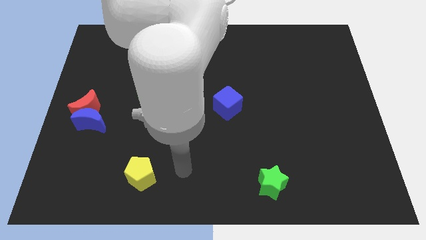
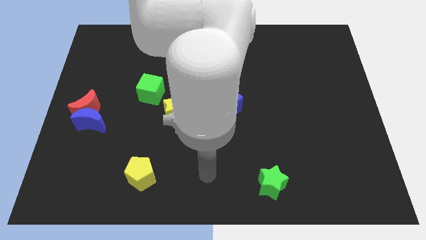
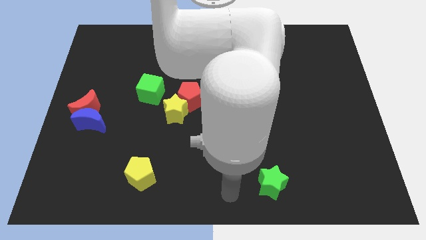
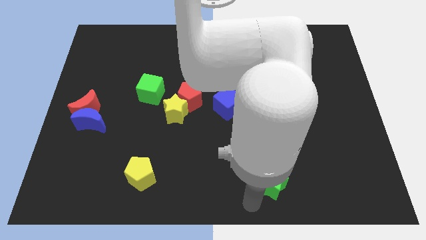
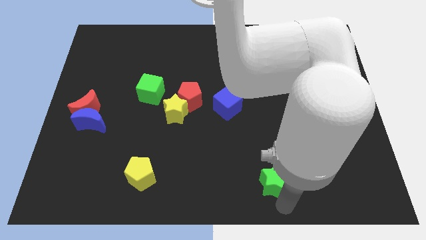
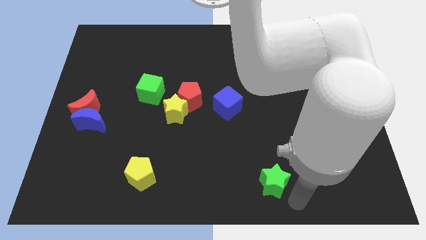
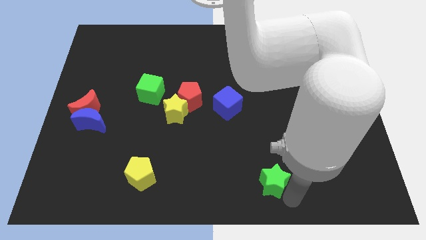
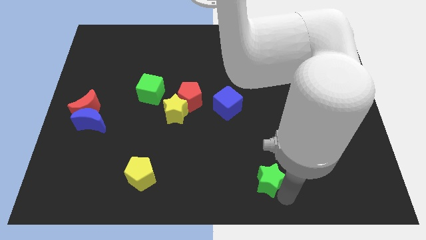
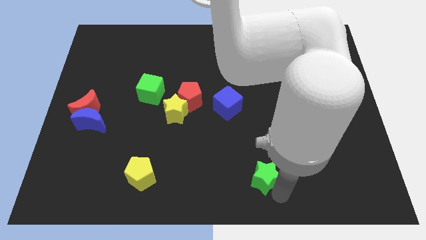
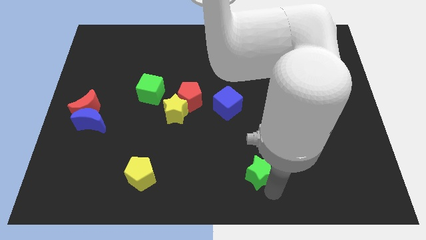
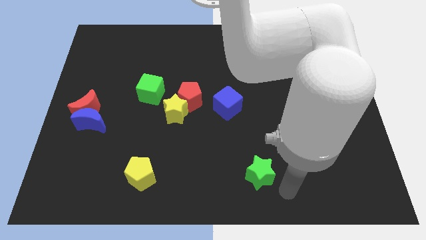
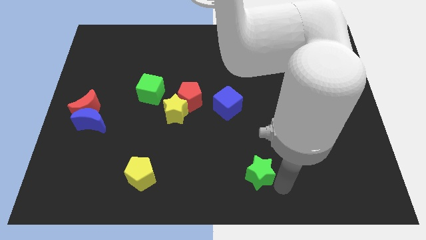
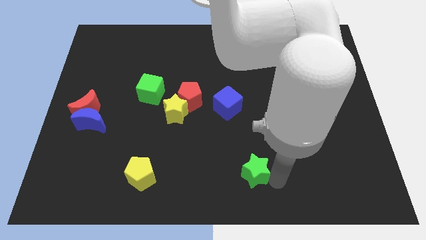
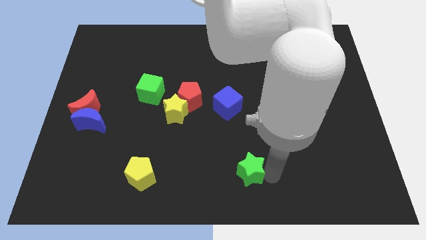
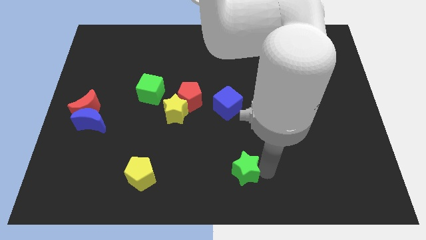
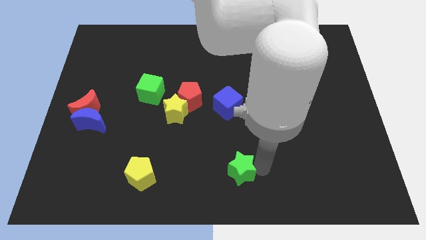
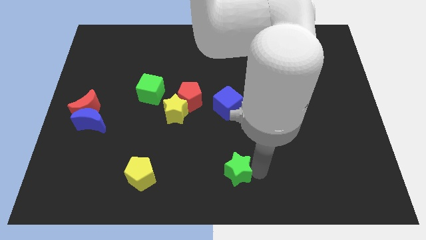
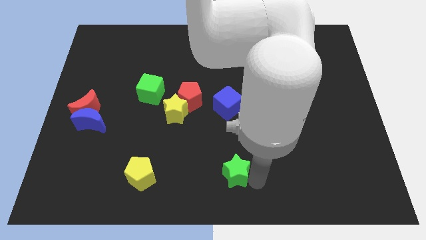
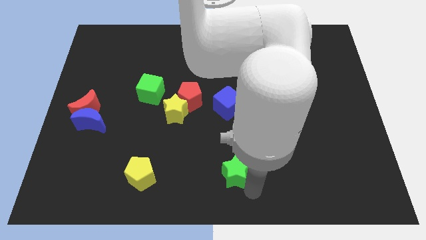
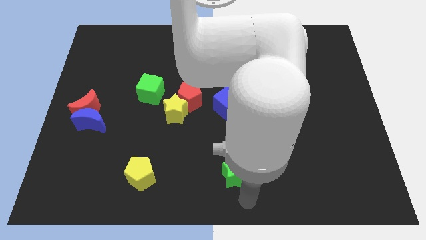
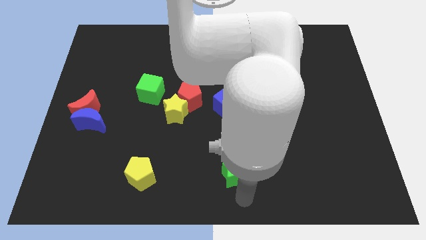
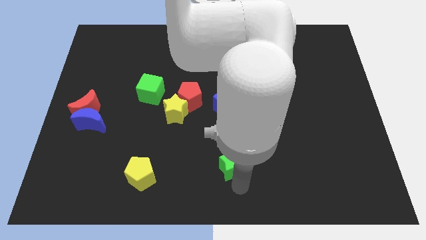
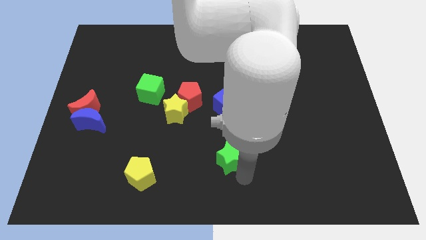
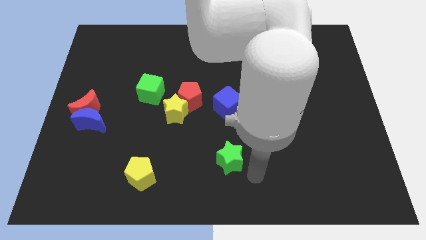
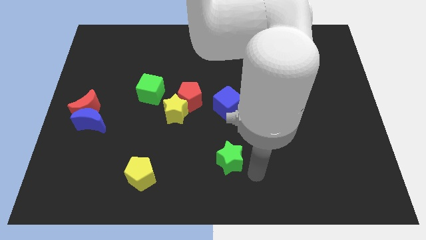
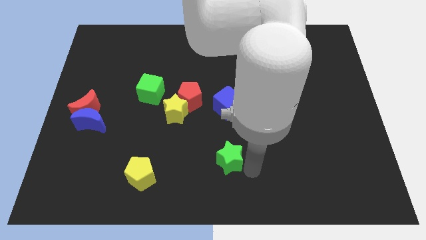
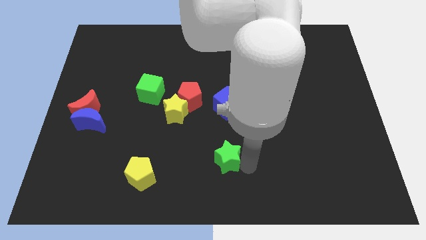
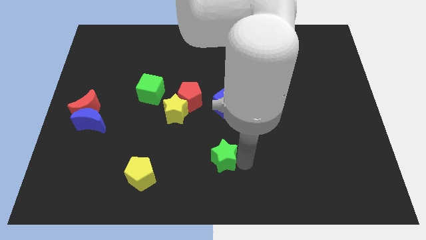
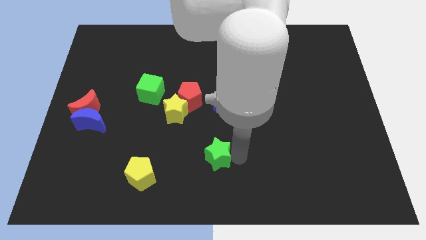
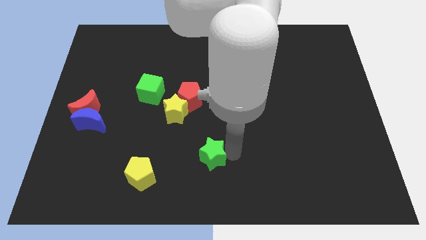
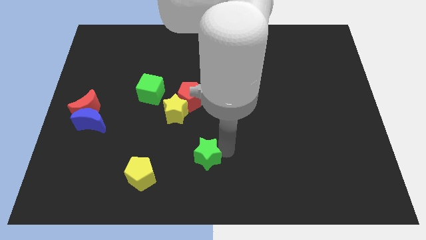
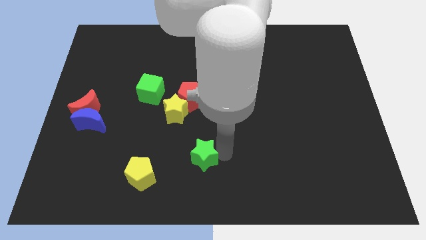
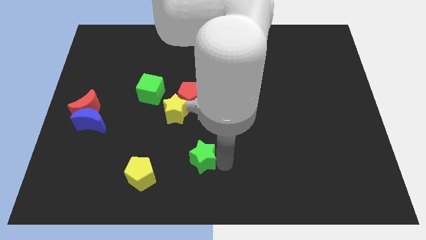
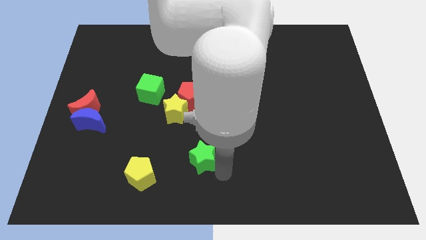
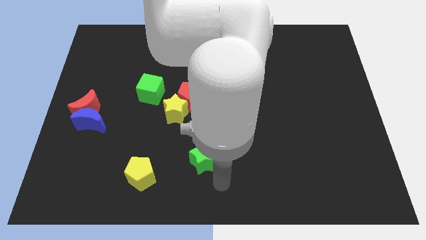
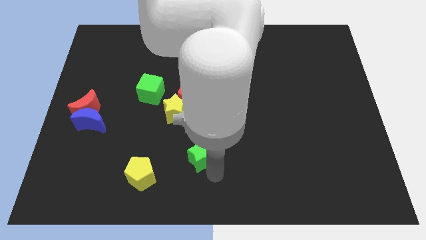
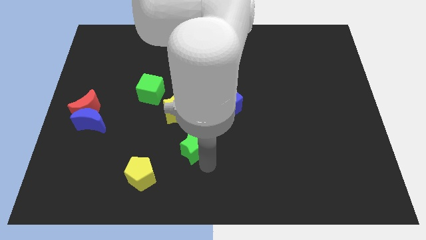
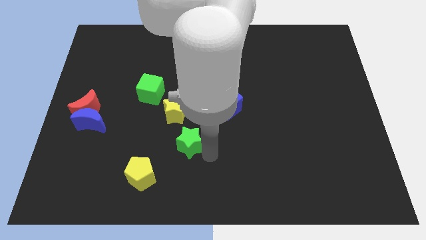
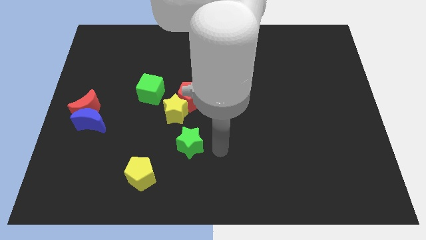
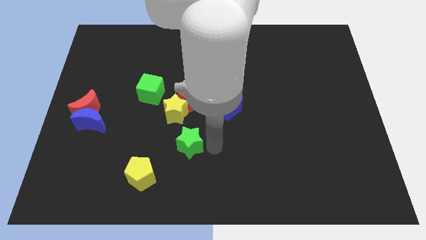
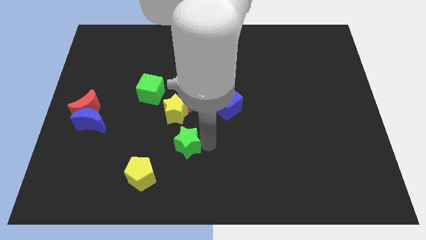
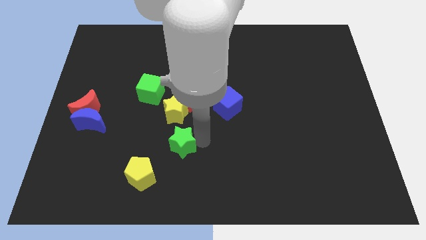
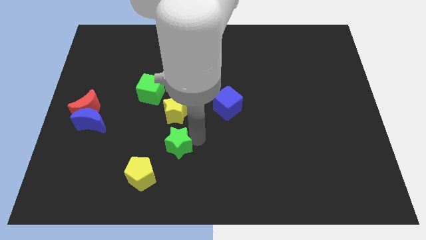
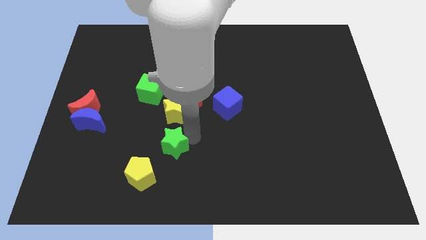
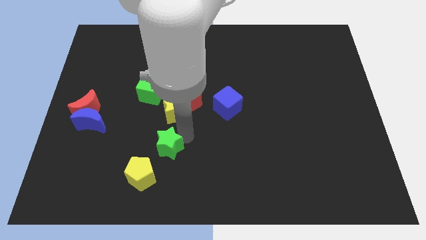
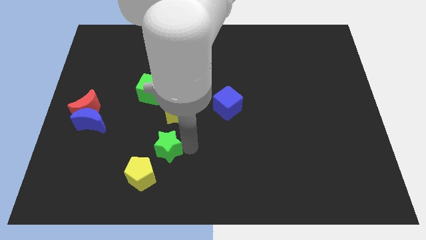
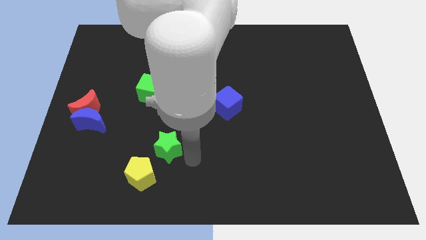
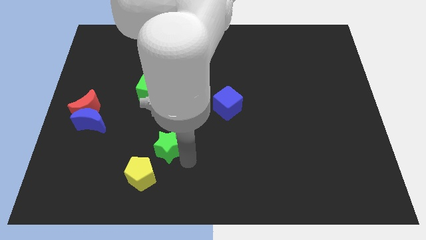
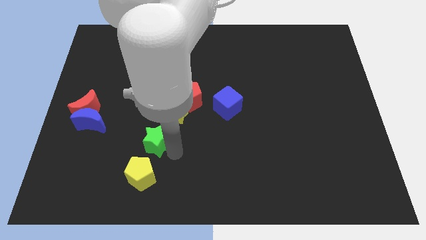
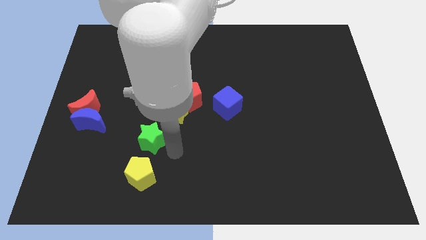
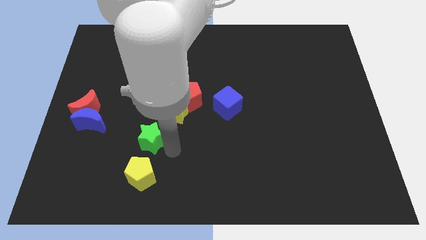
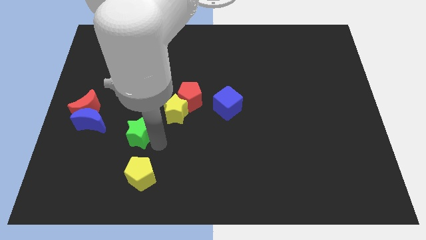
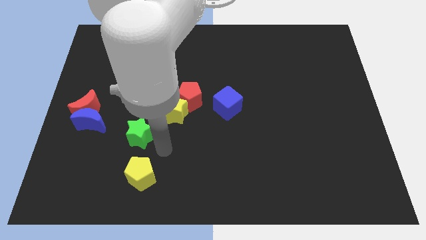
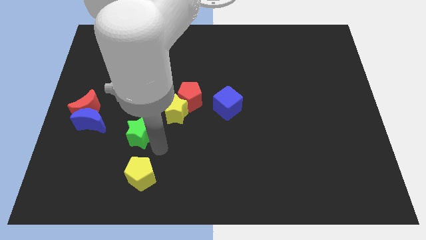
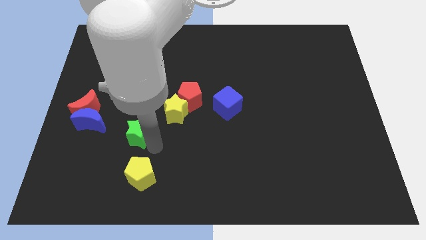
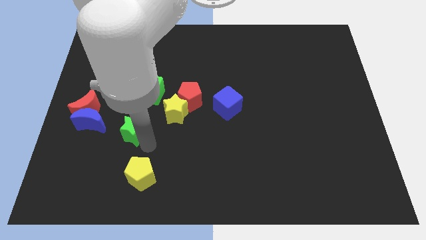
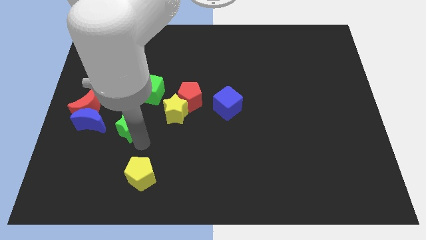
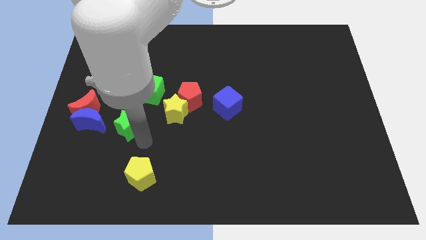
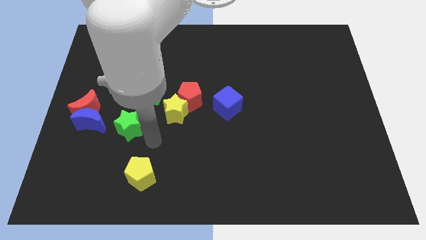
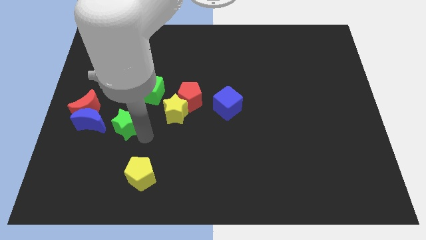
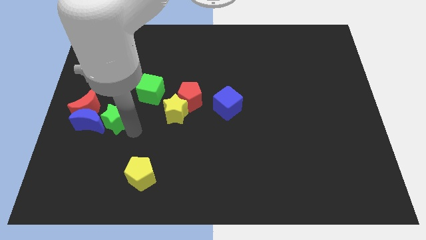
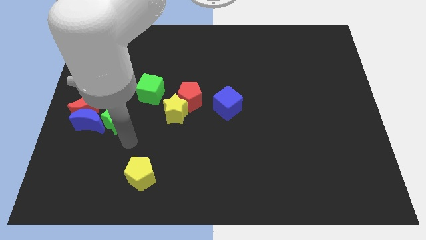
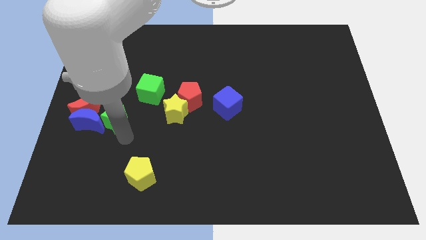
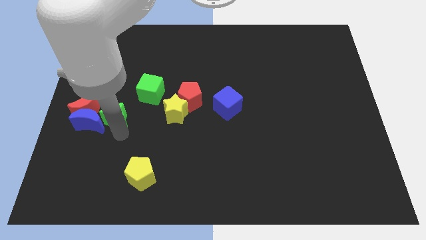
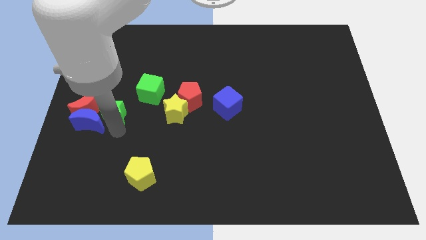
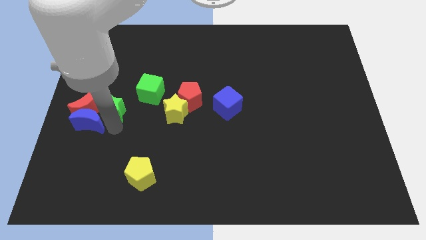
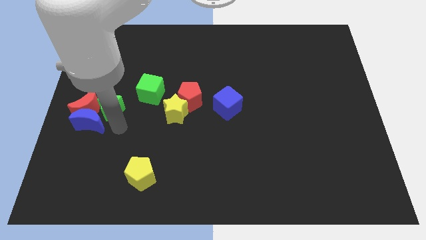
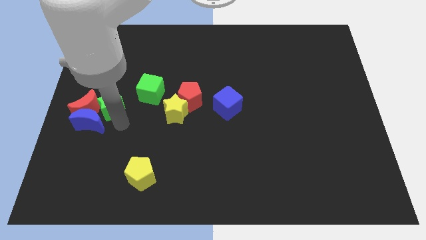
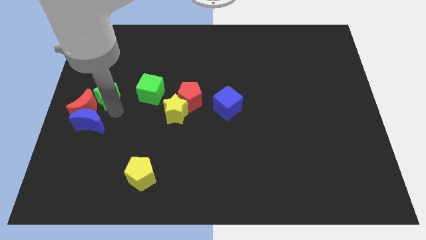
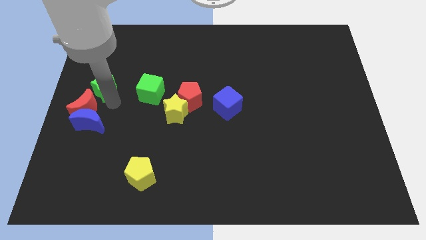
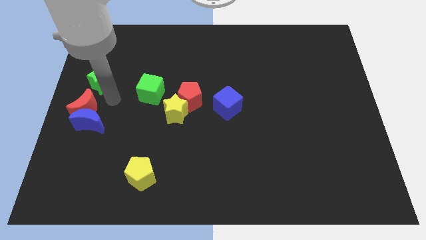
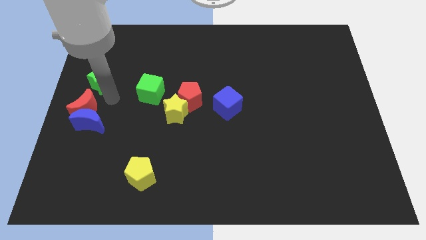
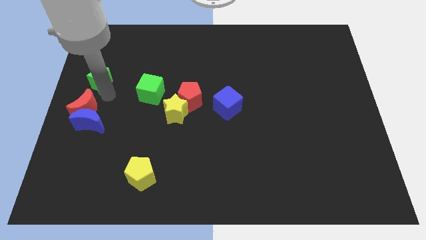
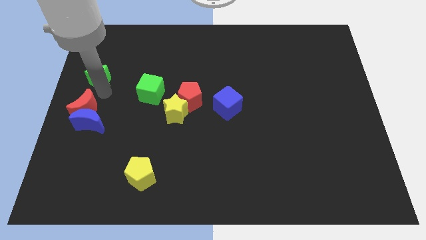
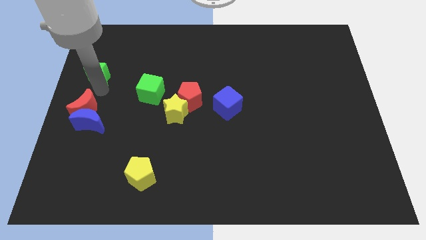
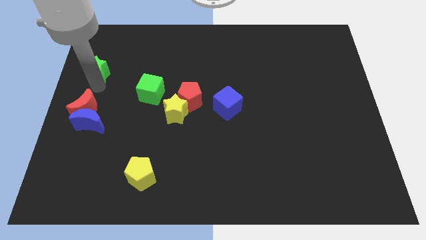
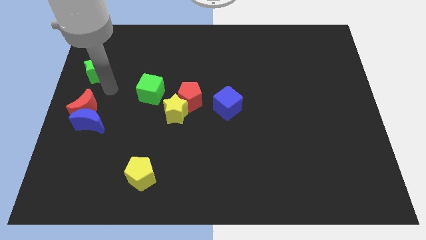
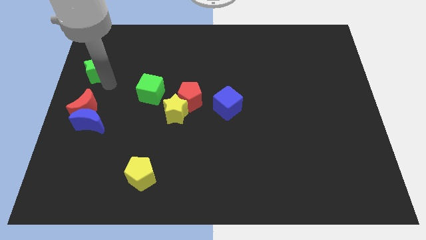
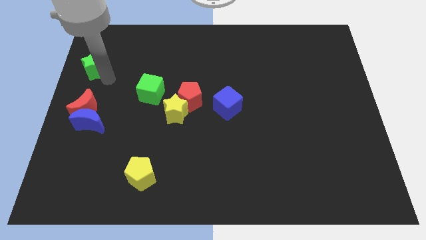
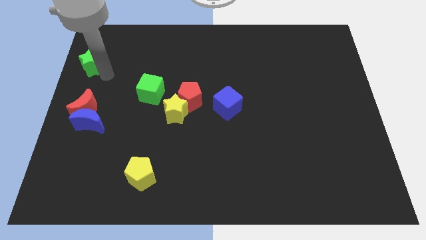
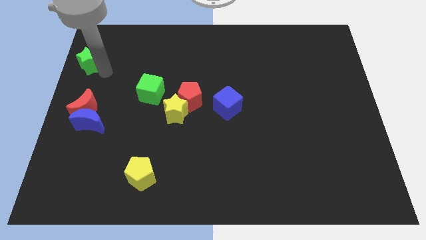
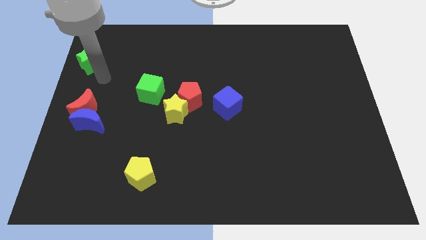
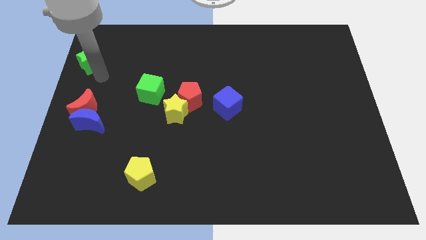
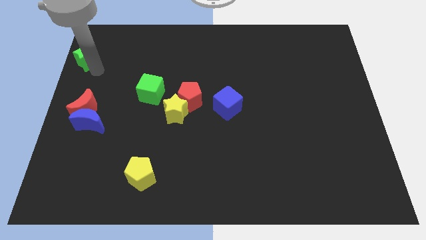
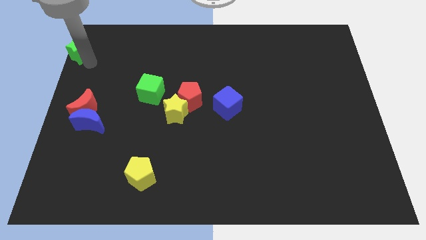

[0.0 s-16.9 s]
slide the green star to the top left corner
